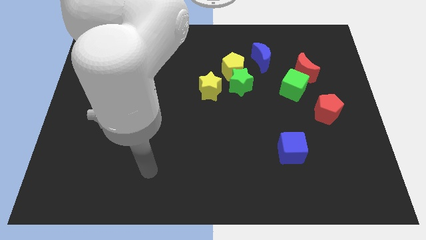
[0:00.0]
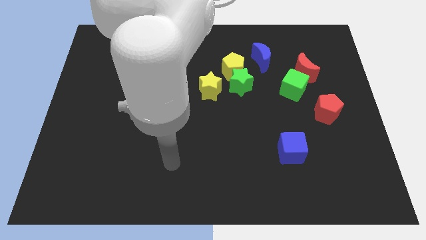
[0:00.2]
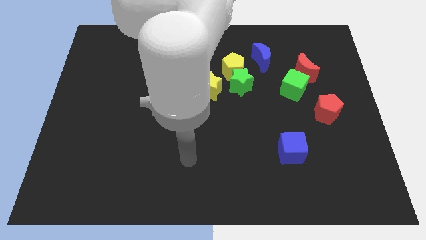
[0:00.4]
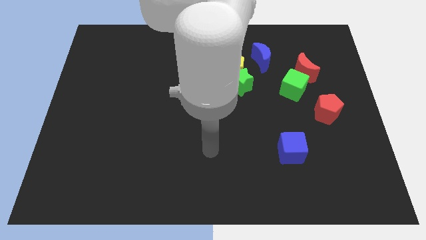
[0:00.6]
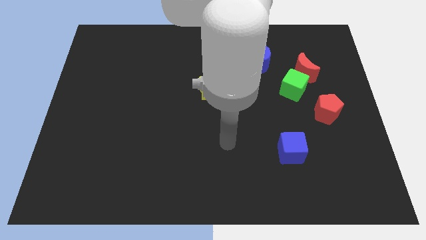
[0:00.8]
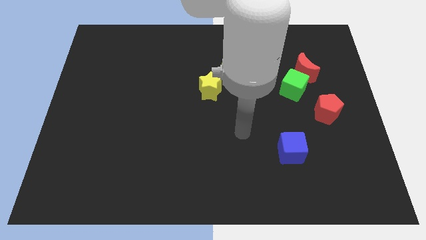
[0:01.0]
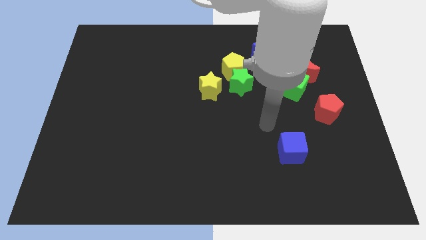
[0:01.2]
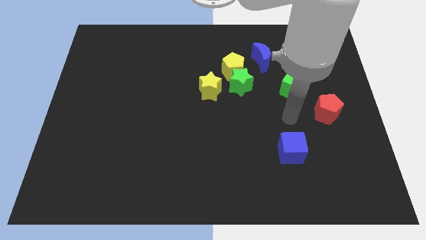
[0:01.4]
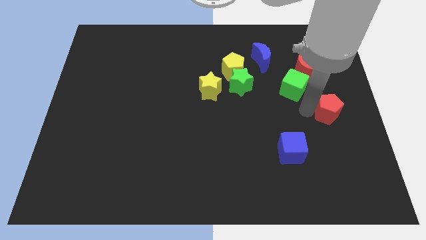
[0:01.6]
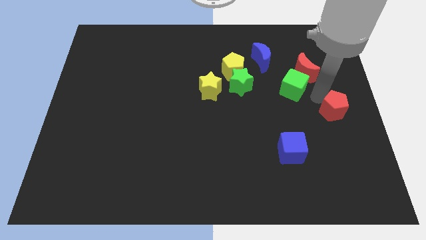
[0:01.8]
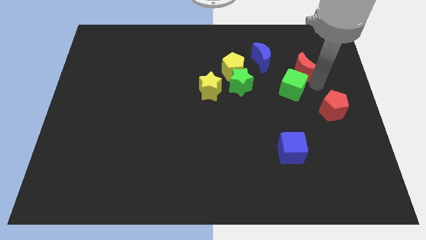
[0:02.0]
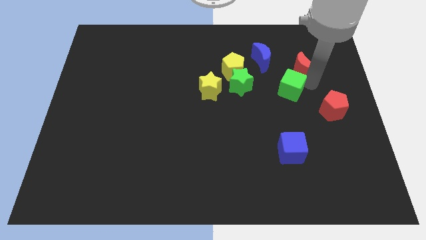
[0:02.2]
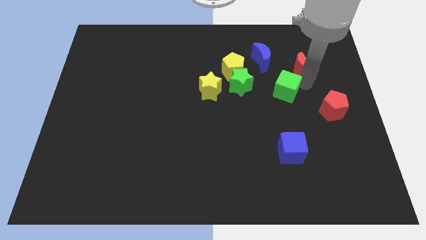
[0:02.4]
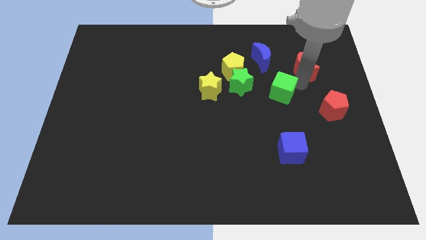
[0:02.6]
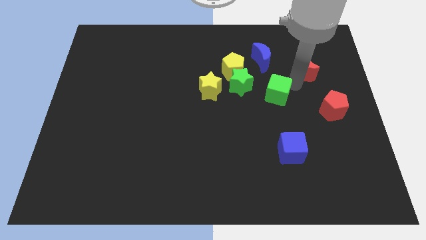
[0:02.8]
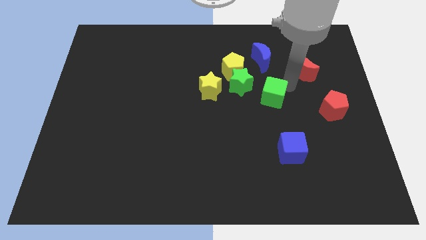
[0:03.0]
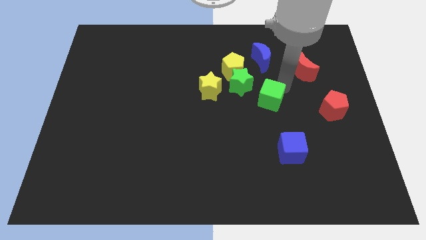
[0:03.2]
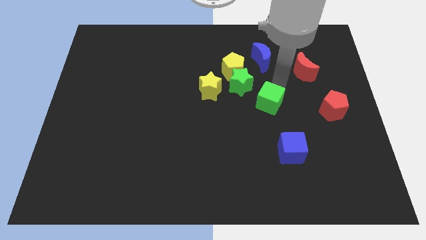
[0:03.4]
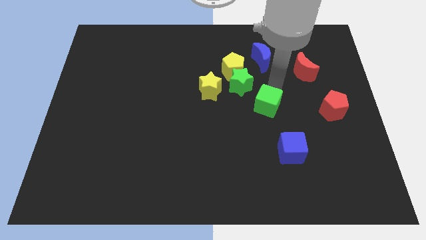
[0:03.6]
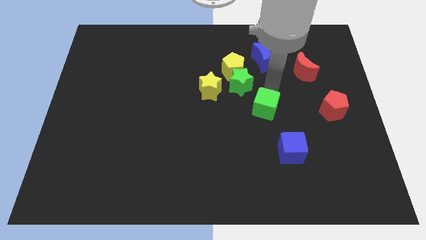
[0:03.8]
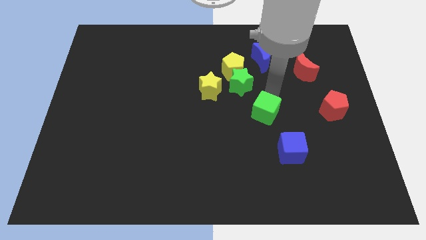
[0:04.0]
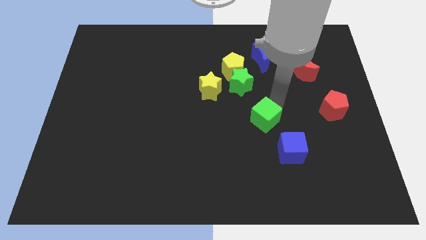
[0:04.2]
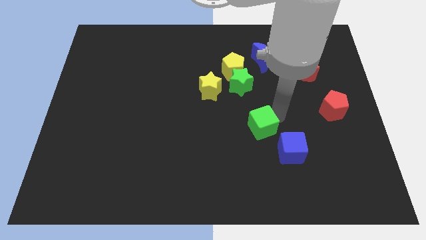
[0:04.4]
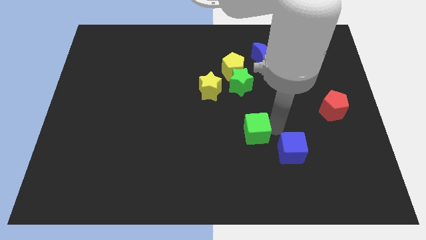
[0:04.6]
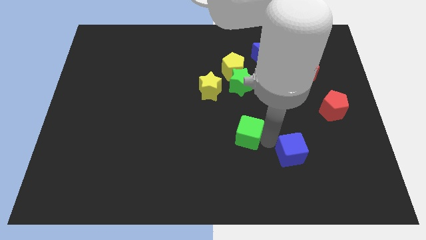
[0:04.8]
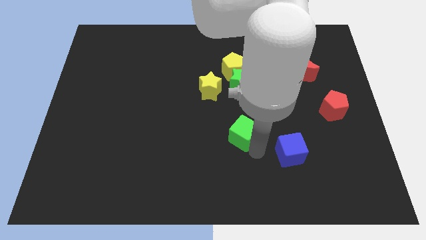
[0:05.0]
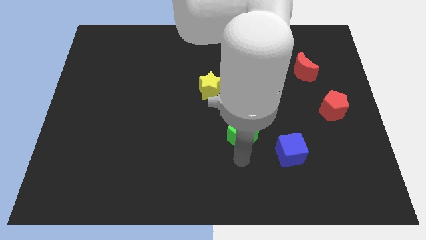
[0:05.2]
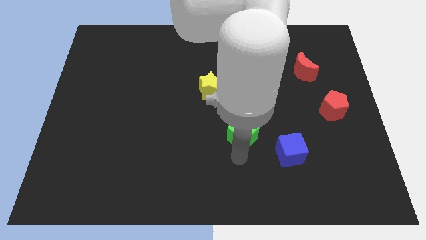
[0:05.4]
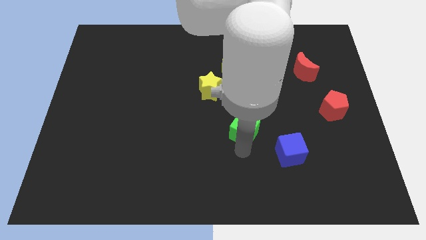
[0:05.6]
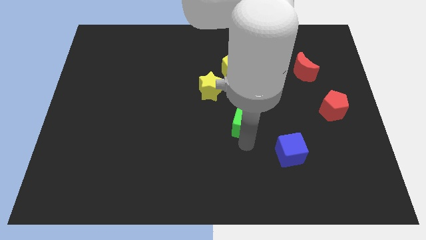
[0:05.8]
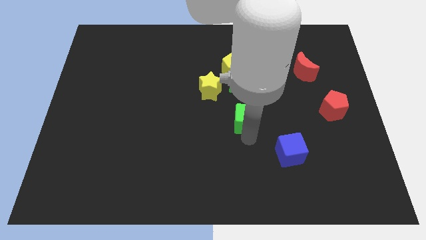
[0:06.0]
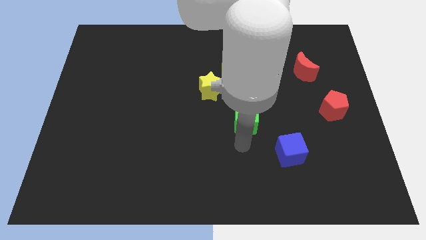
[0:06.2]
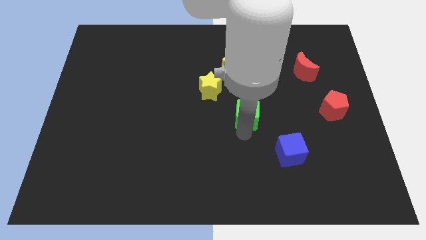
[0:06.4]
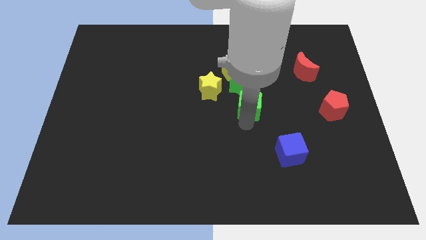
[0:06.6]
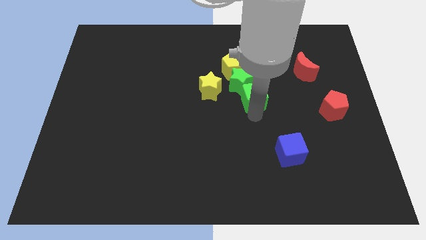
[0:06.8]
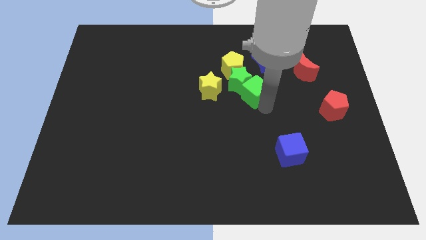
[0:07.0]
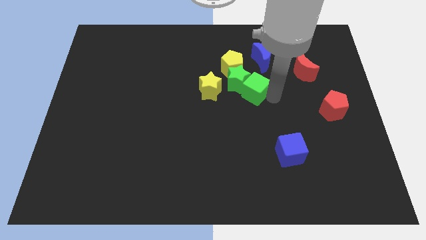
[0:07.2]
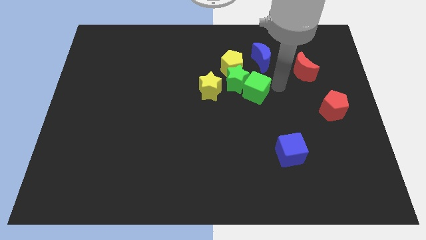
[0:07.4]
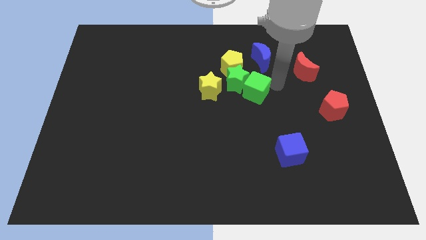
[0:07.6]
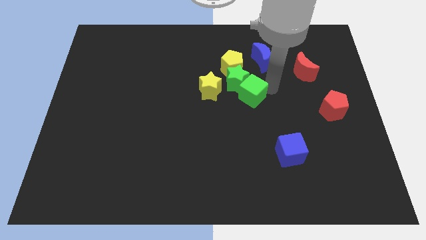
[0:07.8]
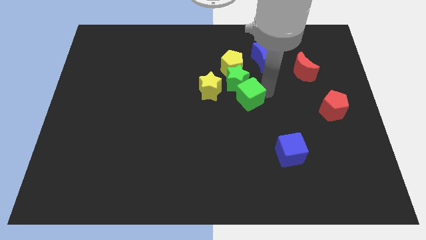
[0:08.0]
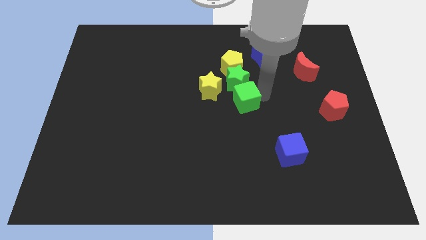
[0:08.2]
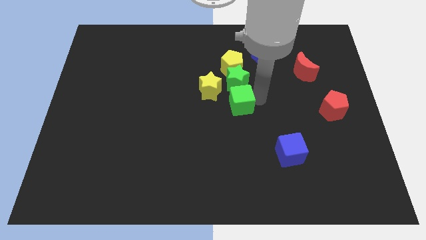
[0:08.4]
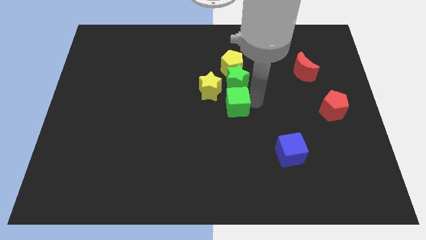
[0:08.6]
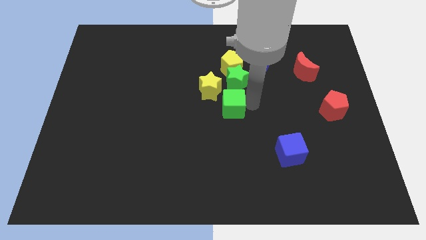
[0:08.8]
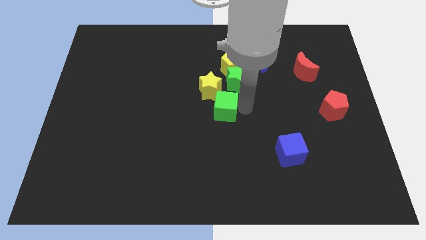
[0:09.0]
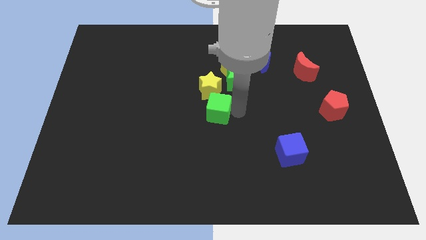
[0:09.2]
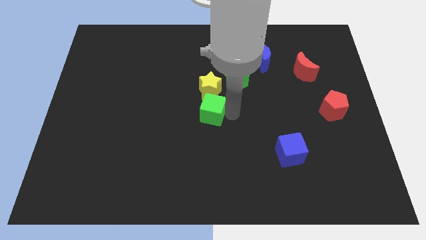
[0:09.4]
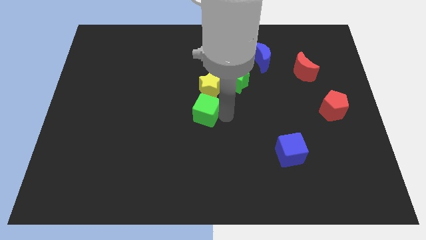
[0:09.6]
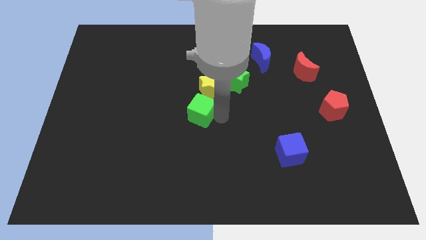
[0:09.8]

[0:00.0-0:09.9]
slide the green cube left

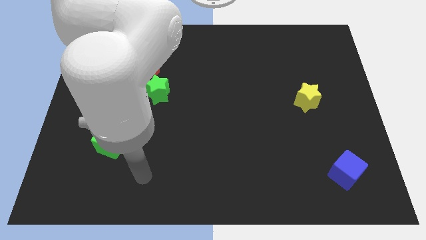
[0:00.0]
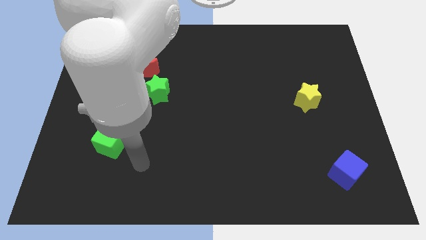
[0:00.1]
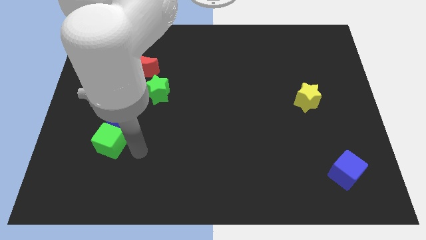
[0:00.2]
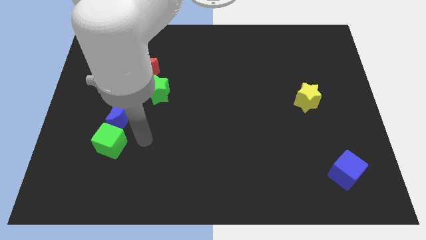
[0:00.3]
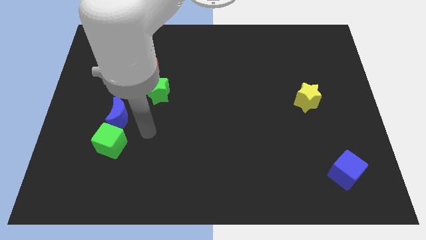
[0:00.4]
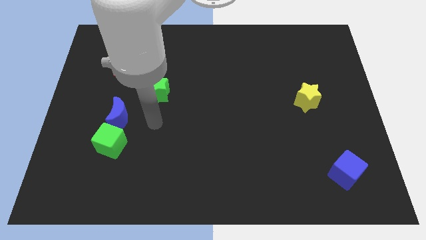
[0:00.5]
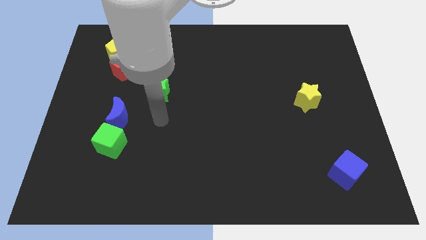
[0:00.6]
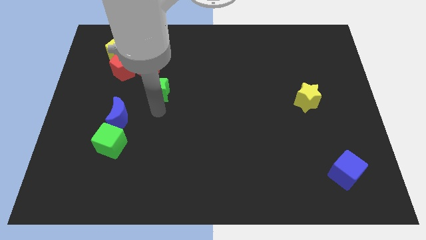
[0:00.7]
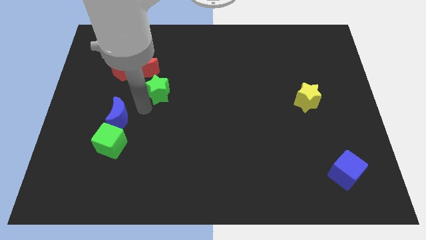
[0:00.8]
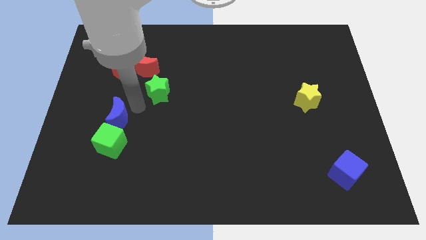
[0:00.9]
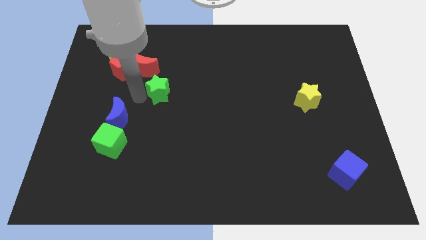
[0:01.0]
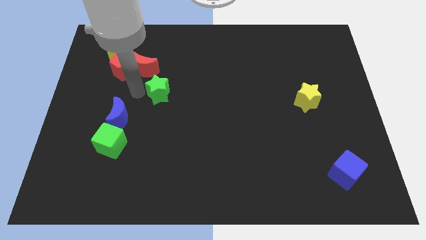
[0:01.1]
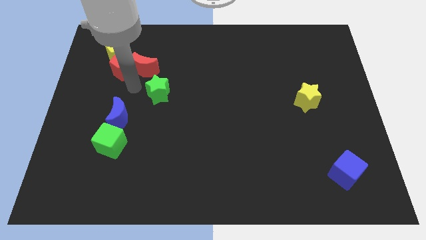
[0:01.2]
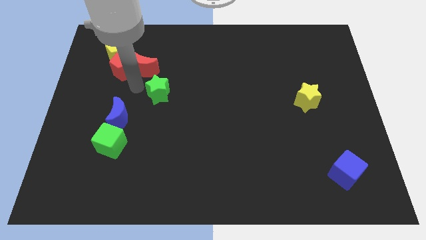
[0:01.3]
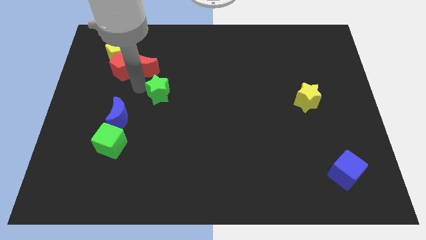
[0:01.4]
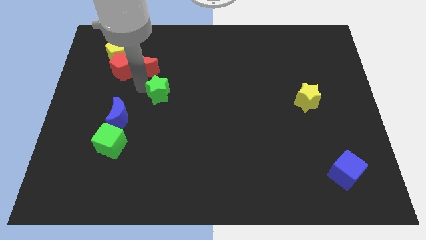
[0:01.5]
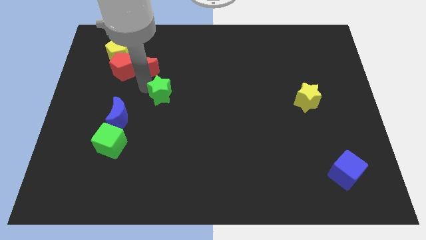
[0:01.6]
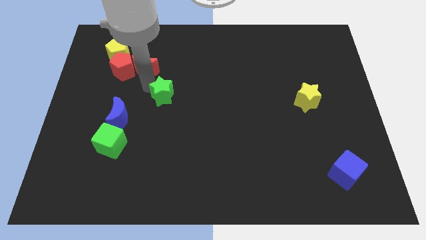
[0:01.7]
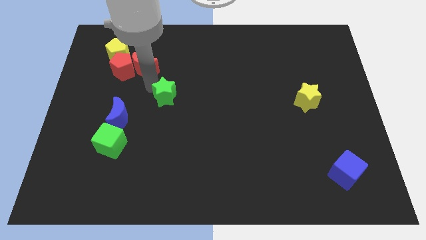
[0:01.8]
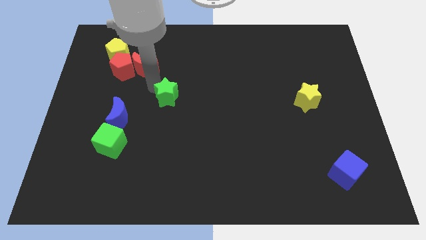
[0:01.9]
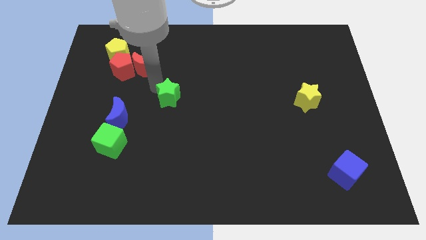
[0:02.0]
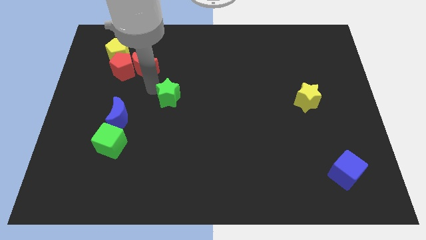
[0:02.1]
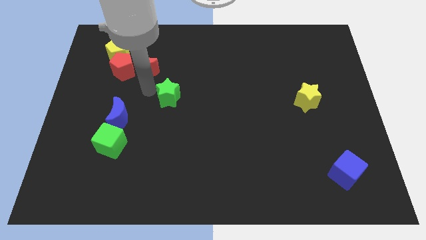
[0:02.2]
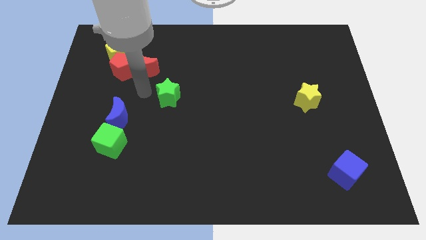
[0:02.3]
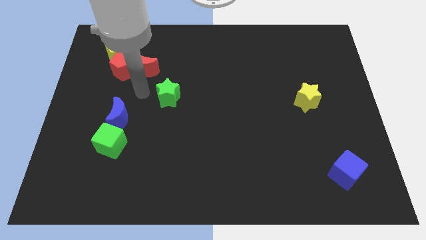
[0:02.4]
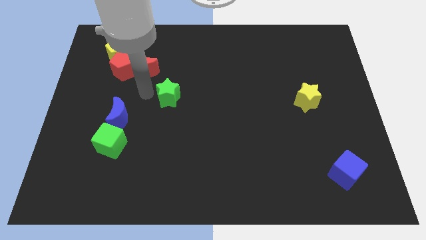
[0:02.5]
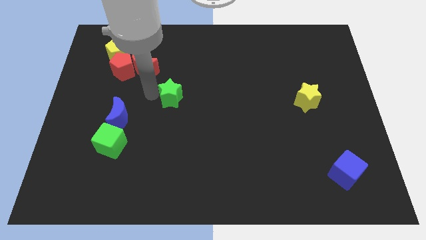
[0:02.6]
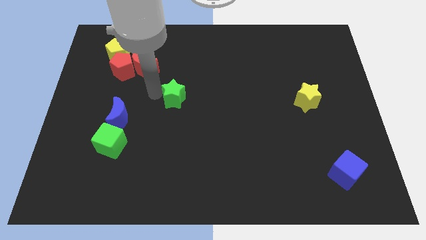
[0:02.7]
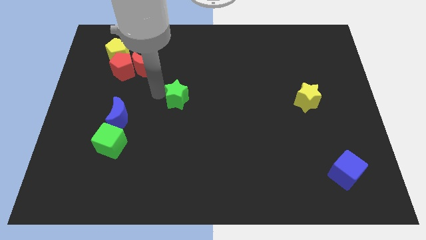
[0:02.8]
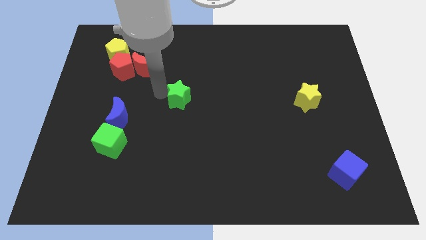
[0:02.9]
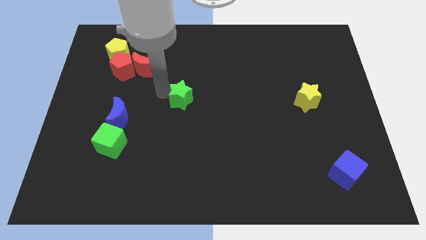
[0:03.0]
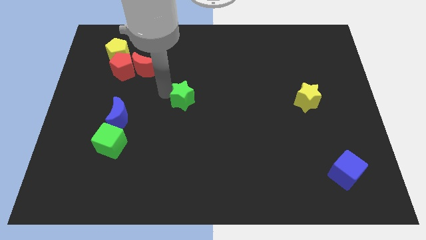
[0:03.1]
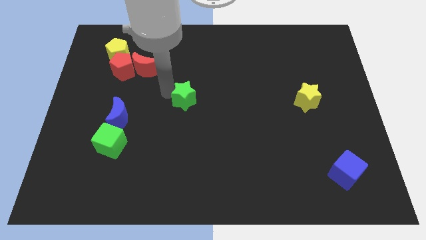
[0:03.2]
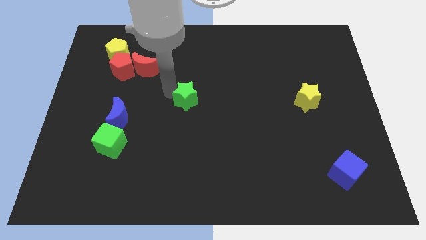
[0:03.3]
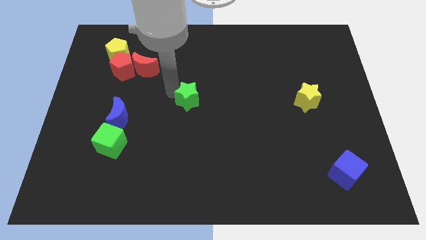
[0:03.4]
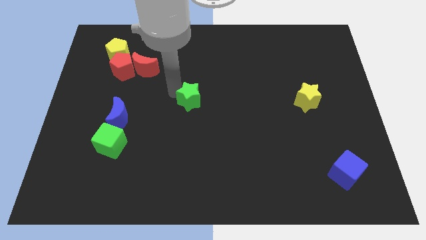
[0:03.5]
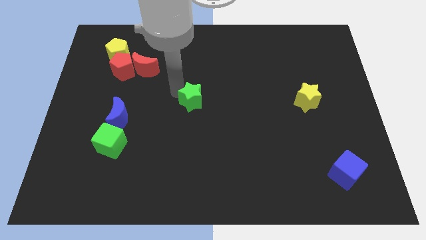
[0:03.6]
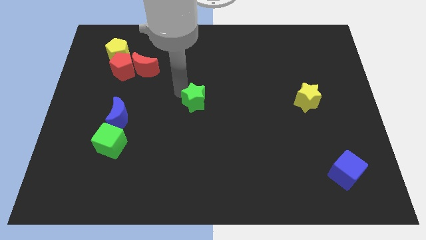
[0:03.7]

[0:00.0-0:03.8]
slightly push the green star downwards and right
